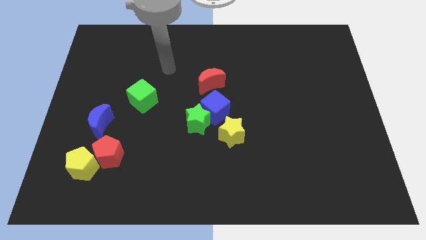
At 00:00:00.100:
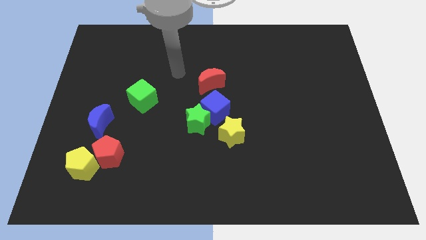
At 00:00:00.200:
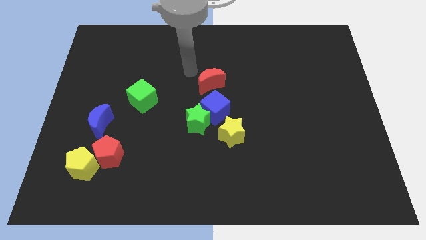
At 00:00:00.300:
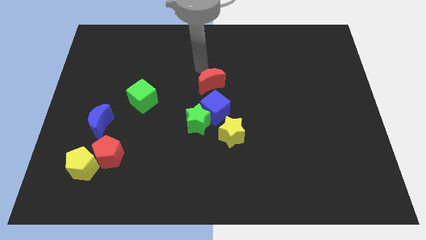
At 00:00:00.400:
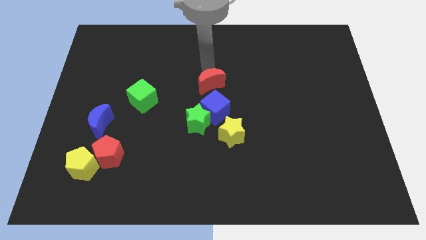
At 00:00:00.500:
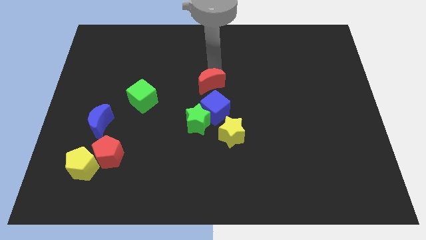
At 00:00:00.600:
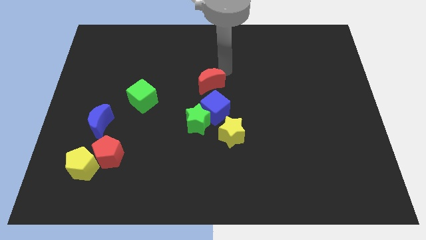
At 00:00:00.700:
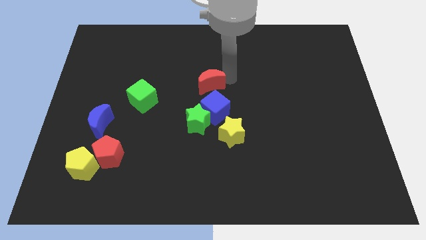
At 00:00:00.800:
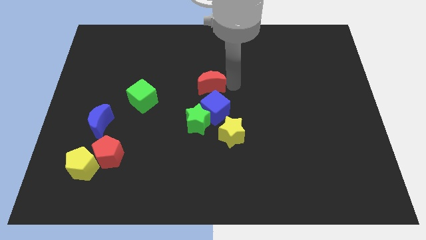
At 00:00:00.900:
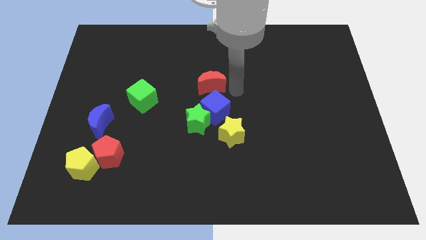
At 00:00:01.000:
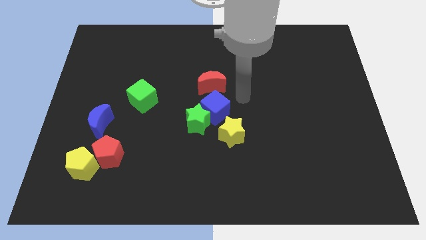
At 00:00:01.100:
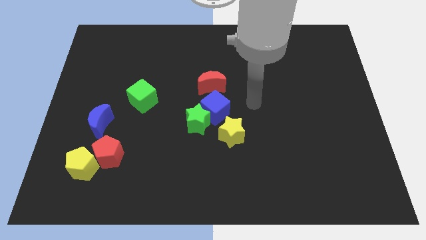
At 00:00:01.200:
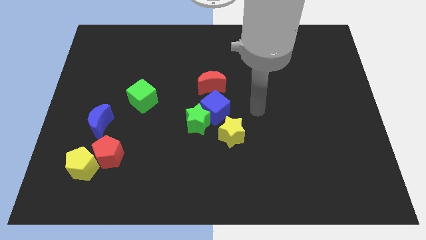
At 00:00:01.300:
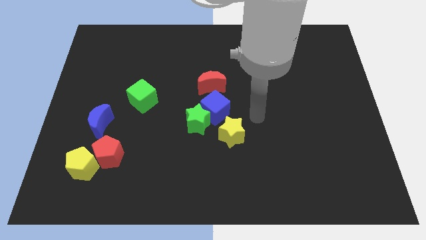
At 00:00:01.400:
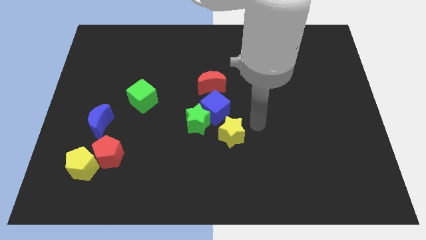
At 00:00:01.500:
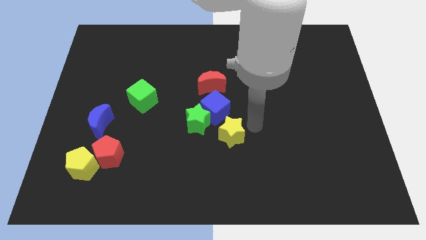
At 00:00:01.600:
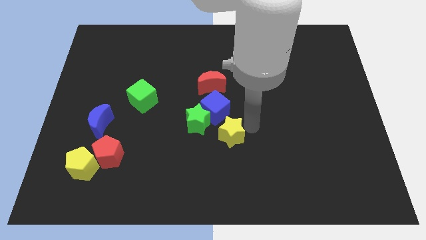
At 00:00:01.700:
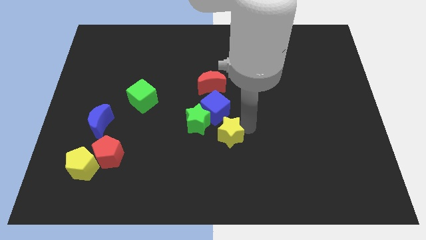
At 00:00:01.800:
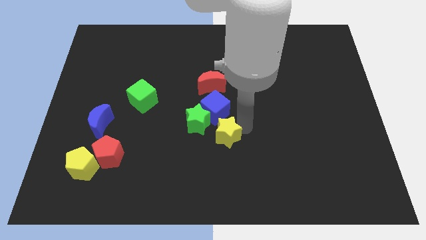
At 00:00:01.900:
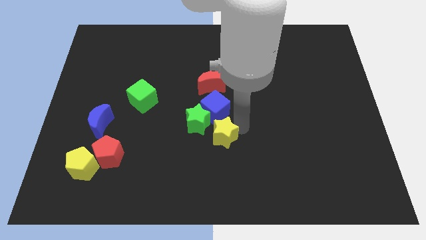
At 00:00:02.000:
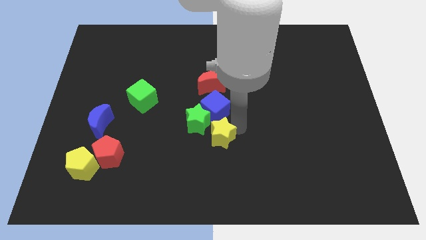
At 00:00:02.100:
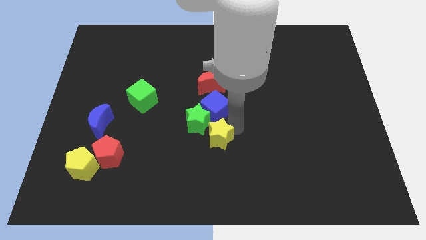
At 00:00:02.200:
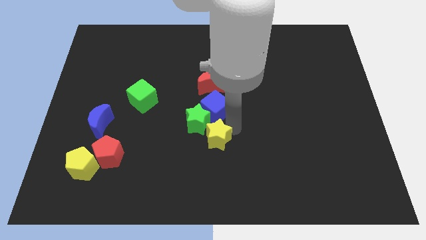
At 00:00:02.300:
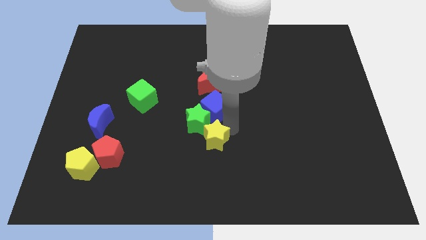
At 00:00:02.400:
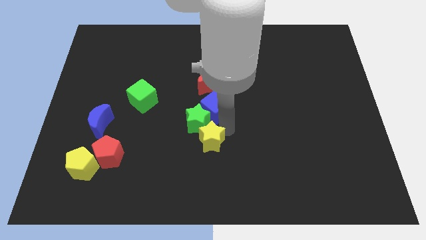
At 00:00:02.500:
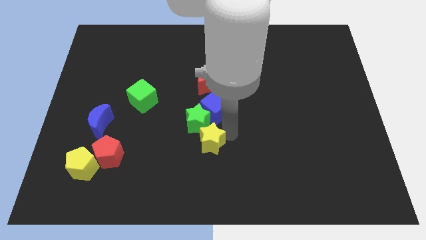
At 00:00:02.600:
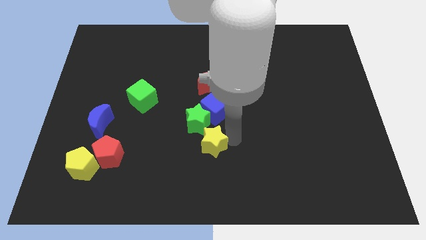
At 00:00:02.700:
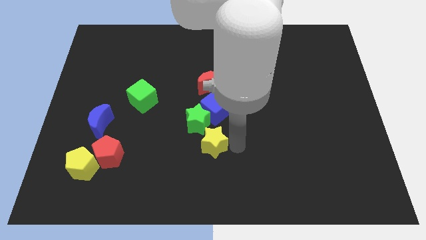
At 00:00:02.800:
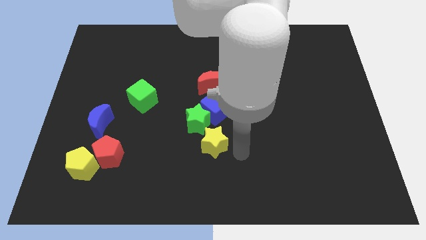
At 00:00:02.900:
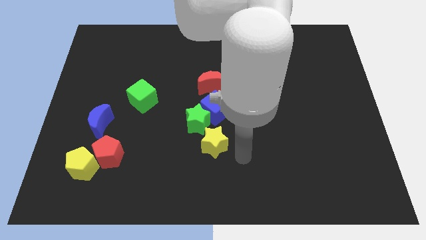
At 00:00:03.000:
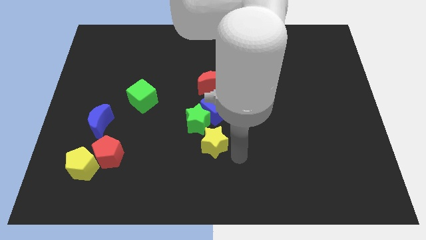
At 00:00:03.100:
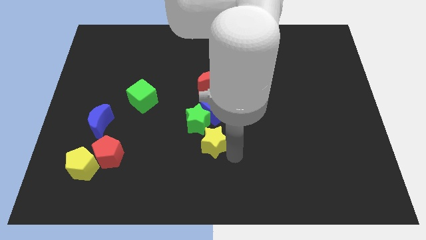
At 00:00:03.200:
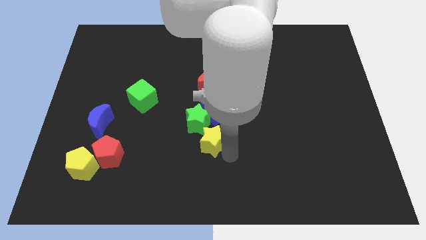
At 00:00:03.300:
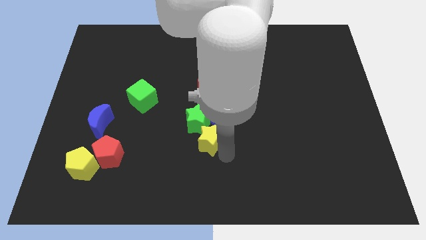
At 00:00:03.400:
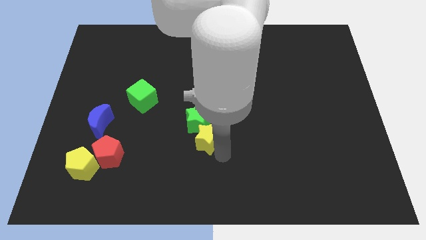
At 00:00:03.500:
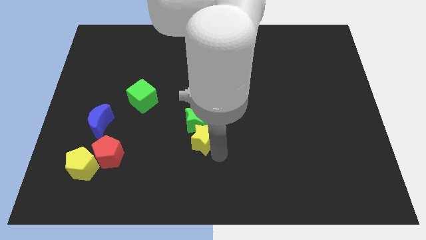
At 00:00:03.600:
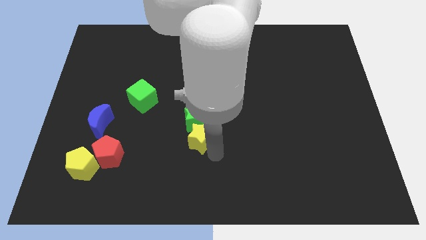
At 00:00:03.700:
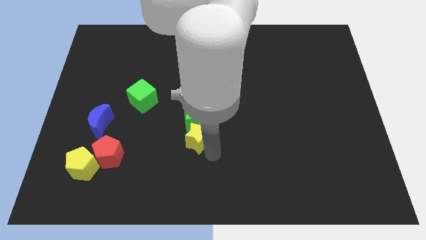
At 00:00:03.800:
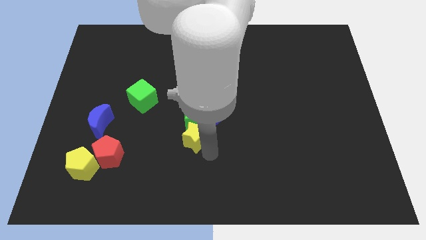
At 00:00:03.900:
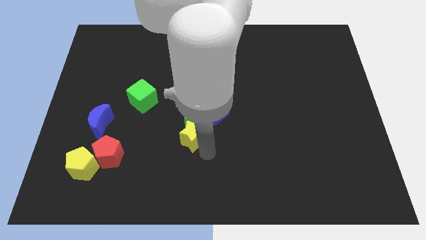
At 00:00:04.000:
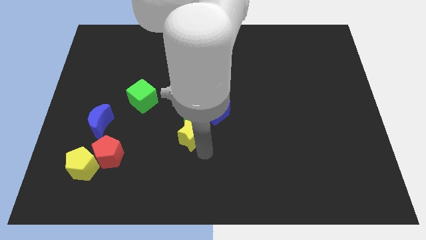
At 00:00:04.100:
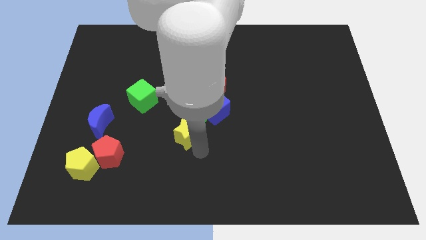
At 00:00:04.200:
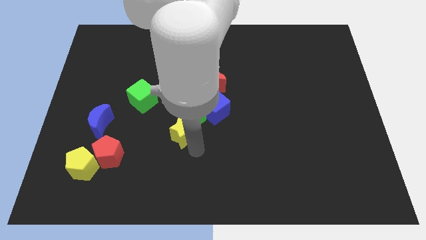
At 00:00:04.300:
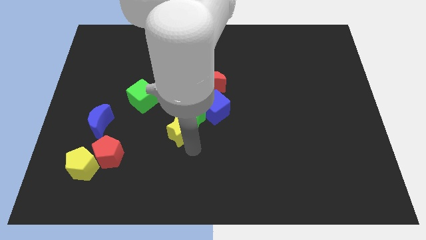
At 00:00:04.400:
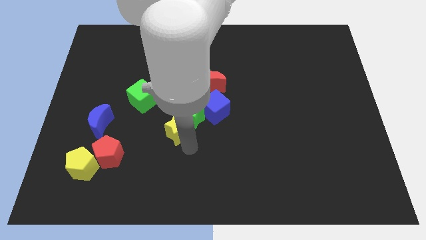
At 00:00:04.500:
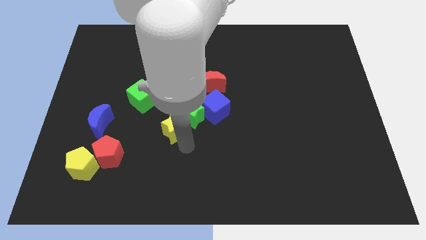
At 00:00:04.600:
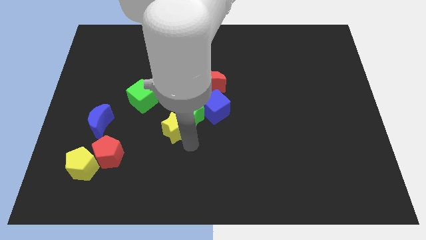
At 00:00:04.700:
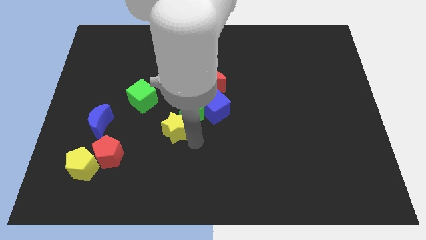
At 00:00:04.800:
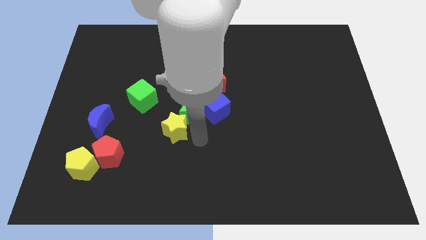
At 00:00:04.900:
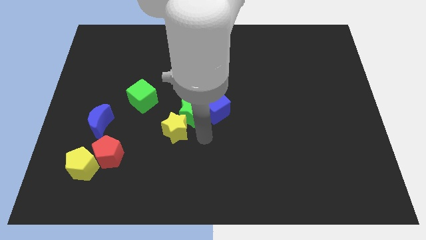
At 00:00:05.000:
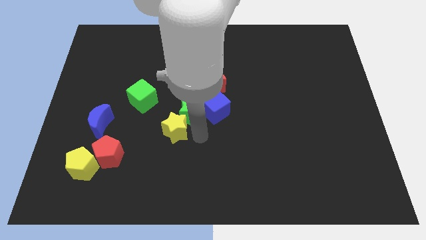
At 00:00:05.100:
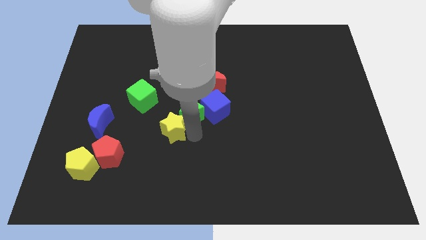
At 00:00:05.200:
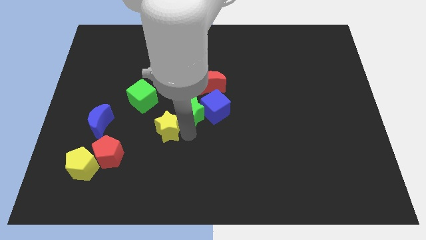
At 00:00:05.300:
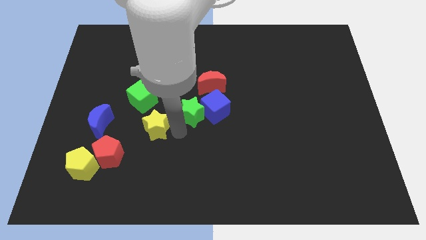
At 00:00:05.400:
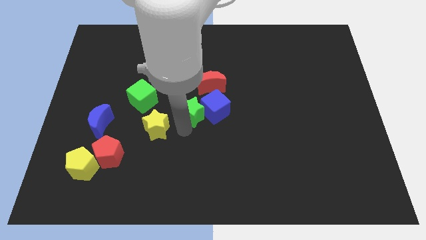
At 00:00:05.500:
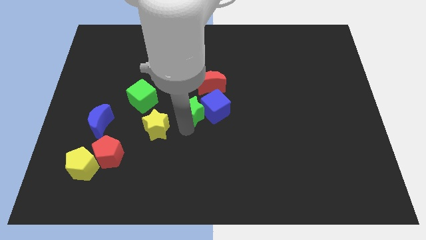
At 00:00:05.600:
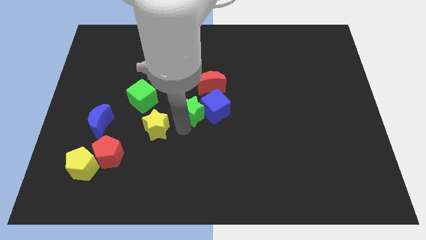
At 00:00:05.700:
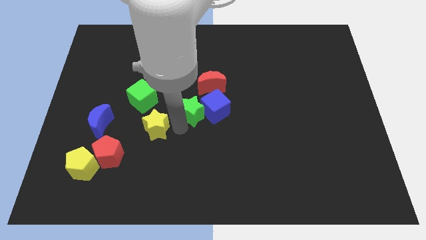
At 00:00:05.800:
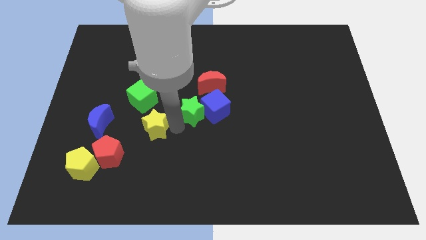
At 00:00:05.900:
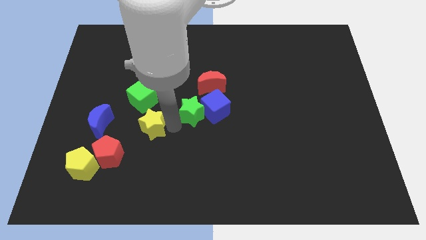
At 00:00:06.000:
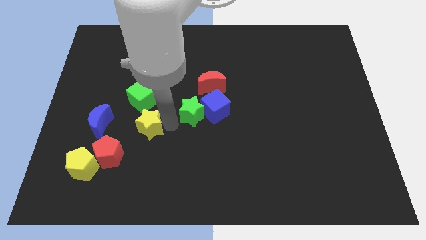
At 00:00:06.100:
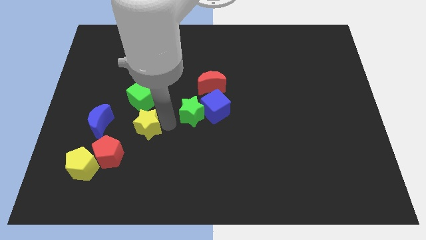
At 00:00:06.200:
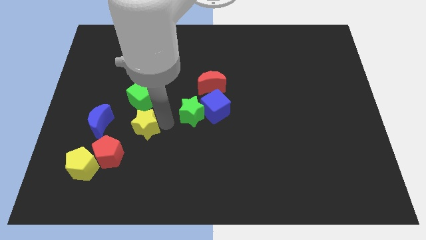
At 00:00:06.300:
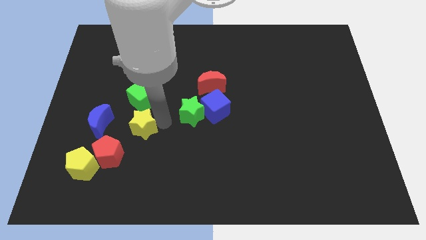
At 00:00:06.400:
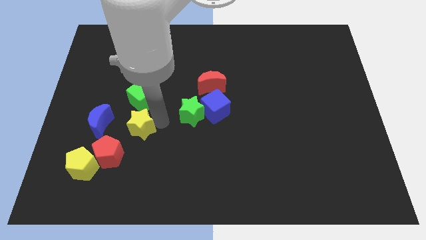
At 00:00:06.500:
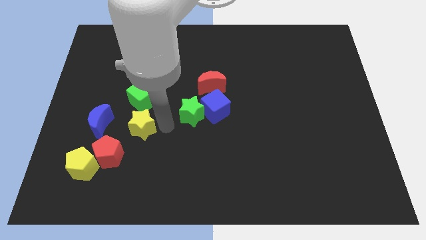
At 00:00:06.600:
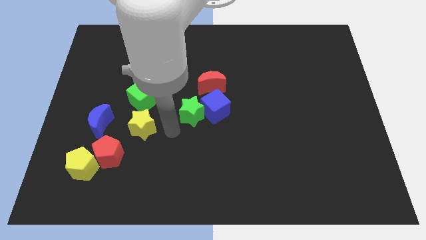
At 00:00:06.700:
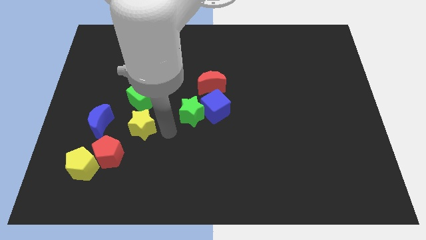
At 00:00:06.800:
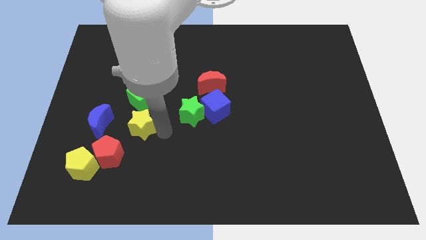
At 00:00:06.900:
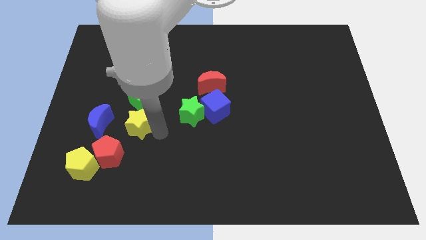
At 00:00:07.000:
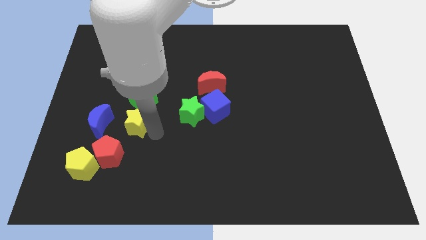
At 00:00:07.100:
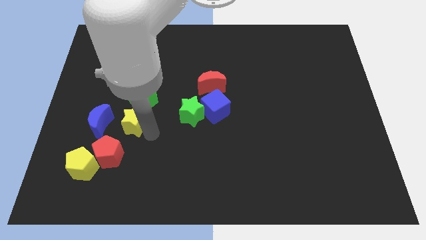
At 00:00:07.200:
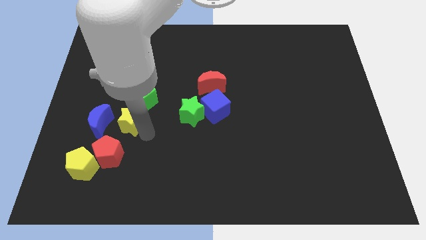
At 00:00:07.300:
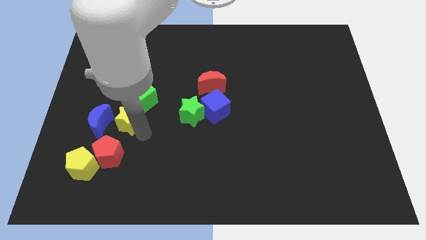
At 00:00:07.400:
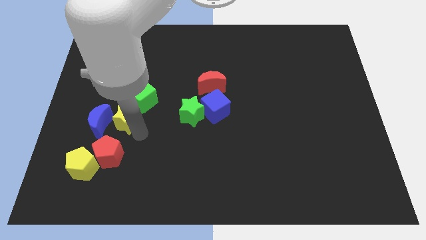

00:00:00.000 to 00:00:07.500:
move the yellow star next to the blue moon
